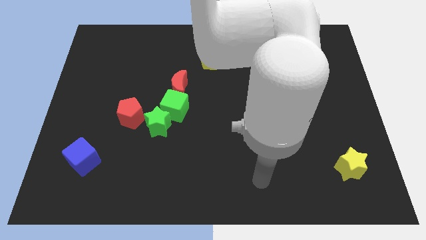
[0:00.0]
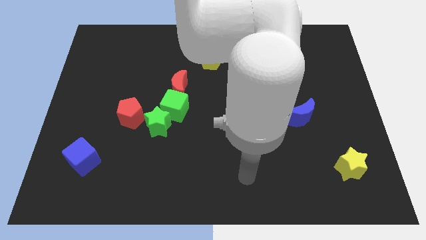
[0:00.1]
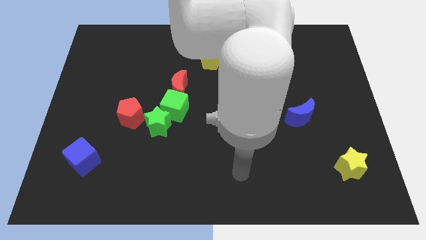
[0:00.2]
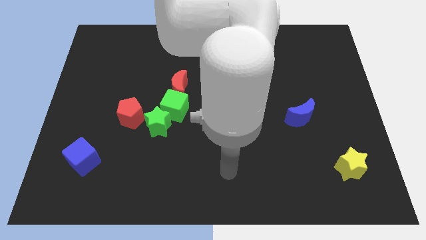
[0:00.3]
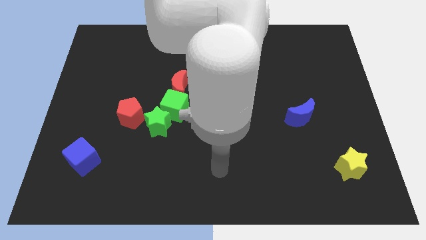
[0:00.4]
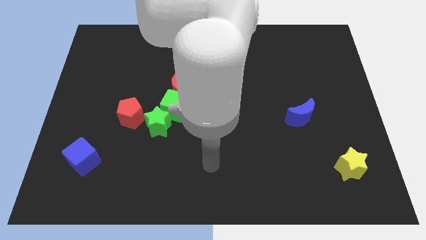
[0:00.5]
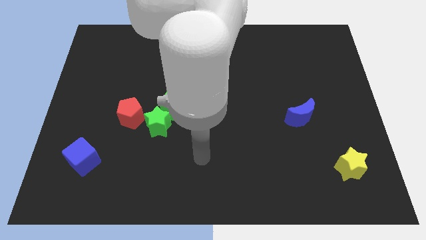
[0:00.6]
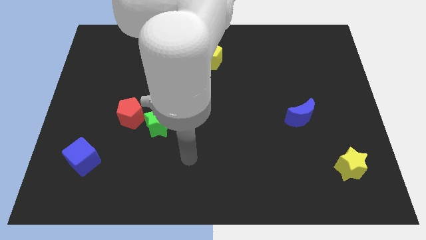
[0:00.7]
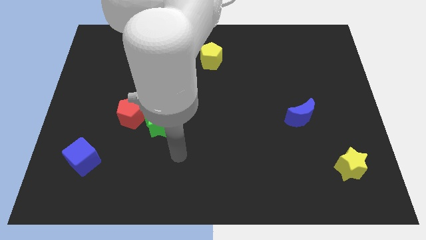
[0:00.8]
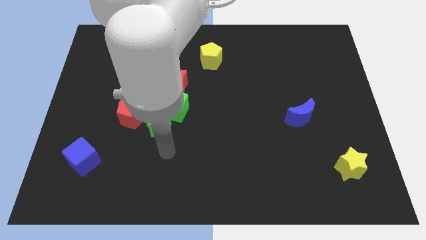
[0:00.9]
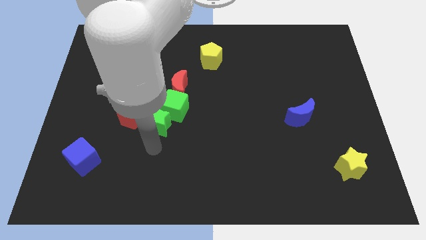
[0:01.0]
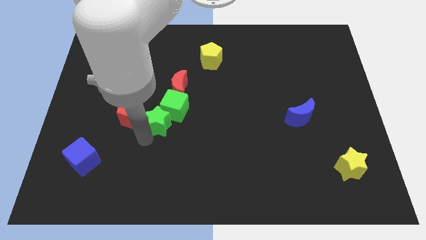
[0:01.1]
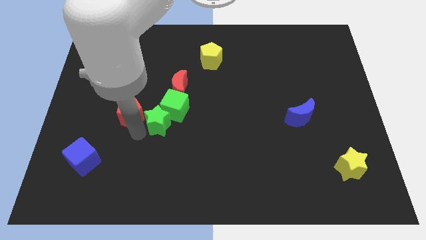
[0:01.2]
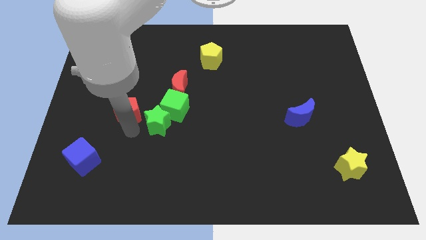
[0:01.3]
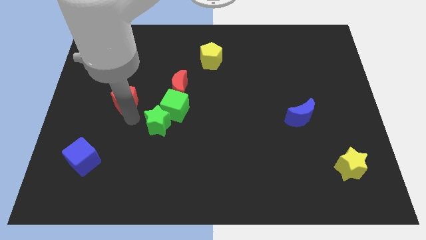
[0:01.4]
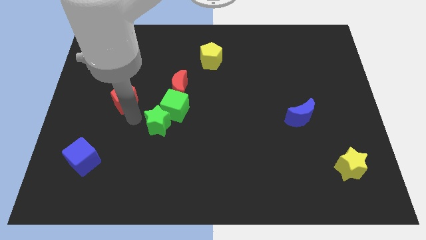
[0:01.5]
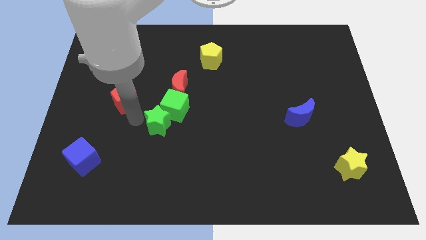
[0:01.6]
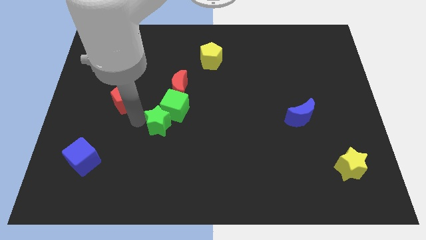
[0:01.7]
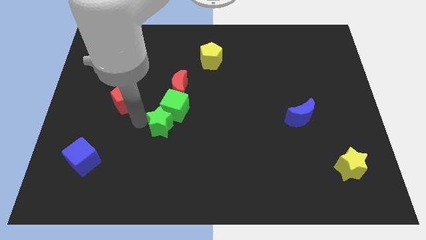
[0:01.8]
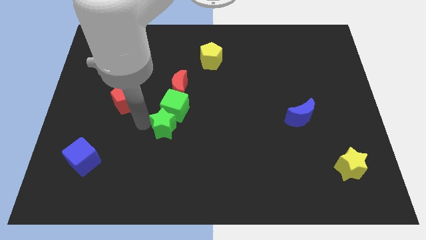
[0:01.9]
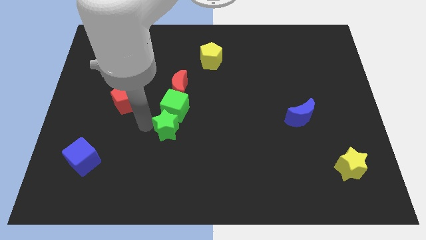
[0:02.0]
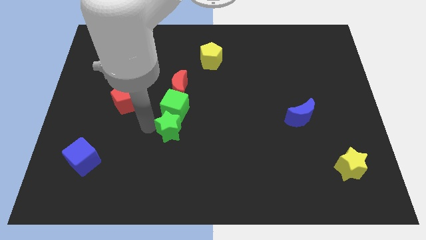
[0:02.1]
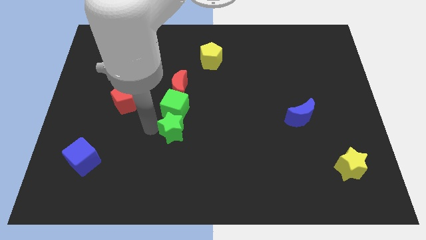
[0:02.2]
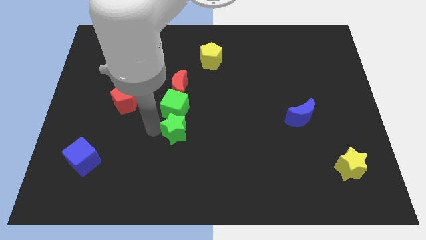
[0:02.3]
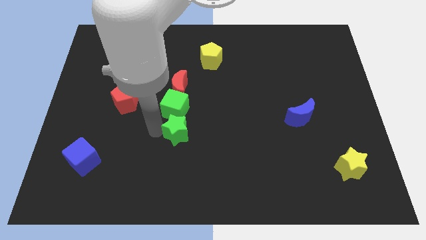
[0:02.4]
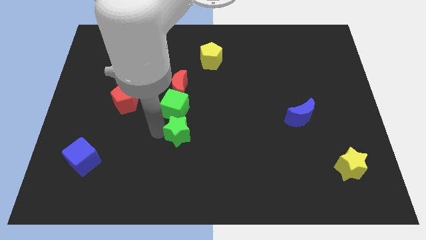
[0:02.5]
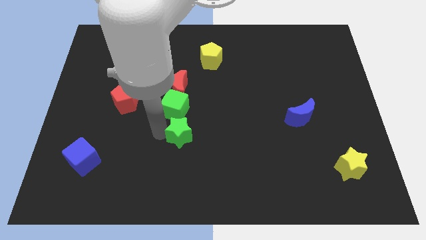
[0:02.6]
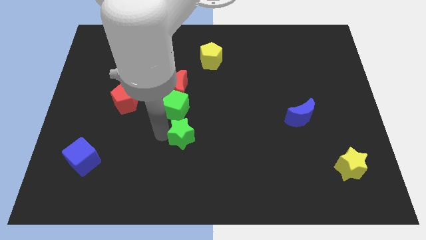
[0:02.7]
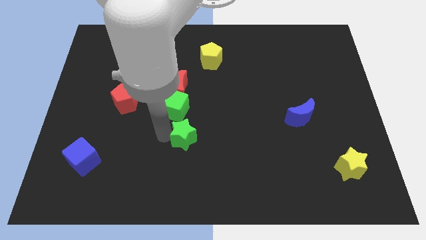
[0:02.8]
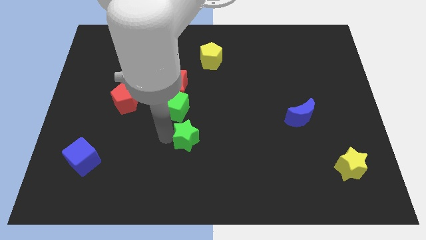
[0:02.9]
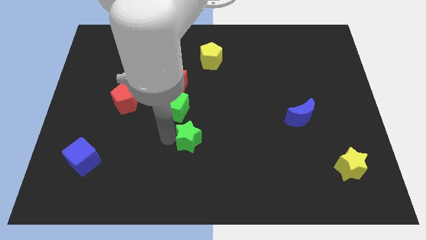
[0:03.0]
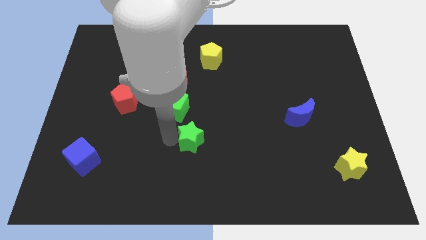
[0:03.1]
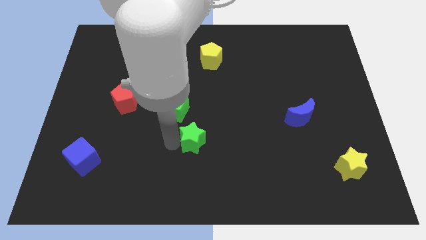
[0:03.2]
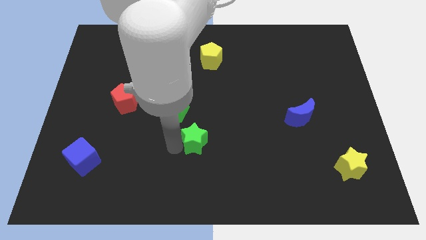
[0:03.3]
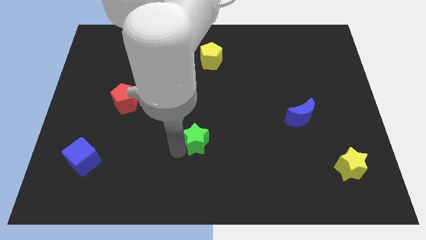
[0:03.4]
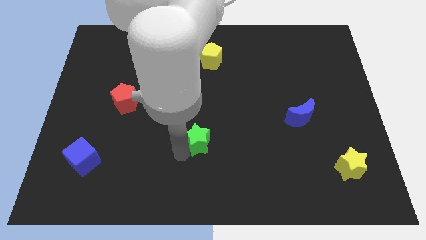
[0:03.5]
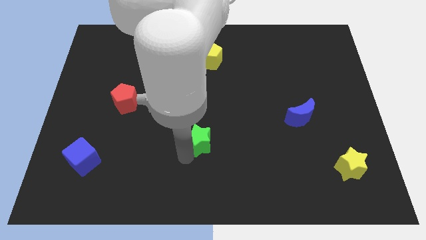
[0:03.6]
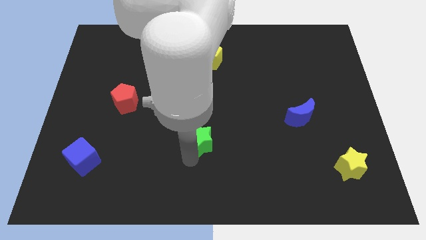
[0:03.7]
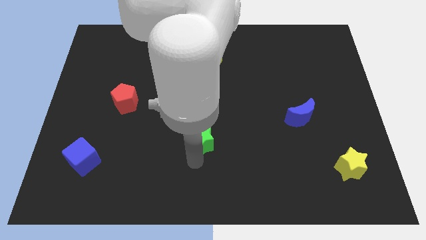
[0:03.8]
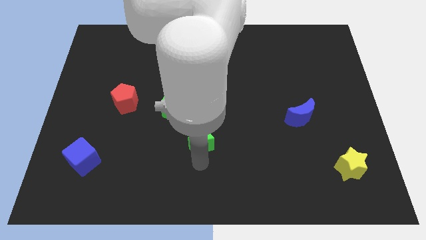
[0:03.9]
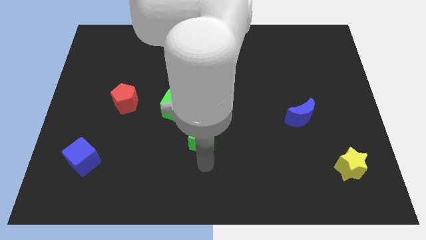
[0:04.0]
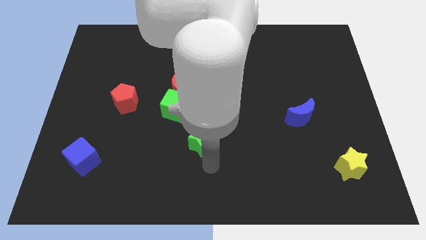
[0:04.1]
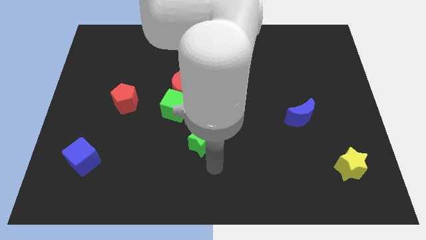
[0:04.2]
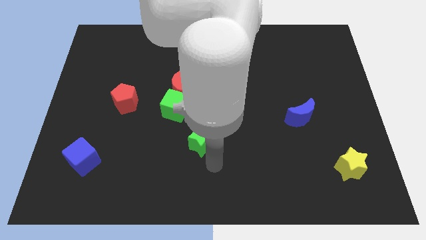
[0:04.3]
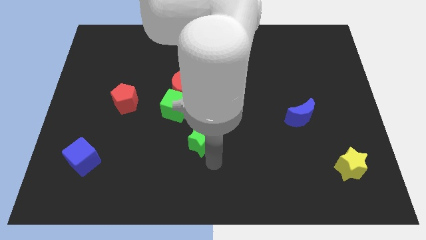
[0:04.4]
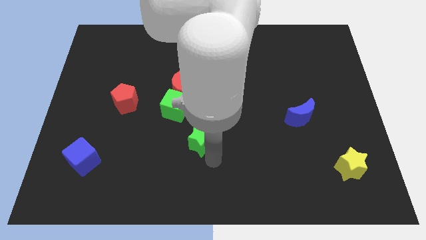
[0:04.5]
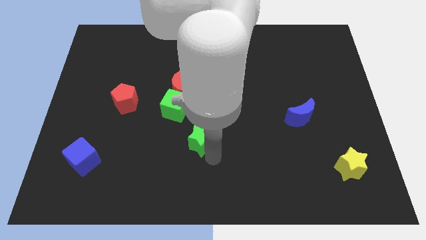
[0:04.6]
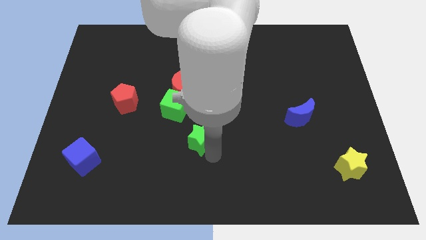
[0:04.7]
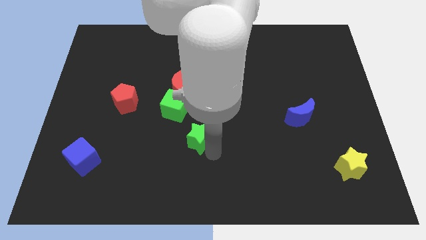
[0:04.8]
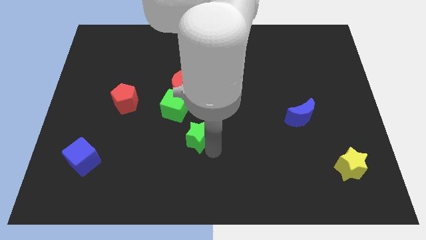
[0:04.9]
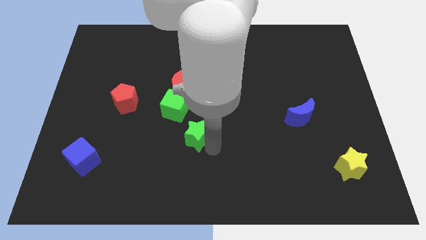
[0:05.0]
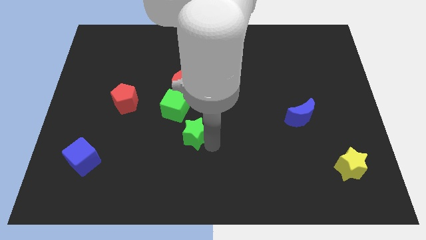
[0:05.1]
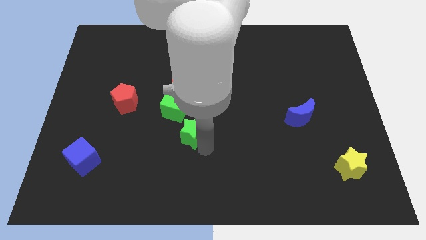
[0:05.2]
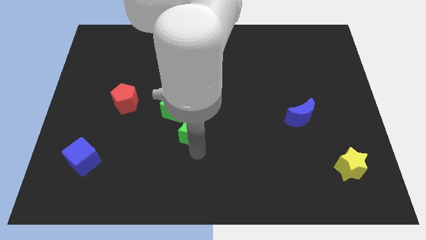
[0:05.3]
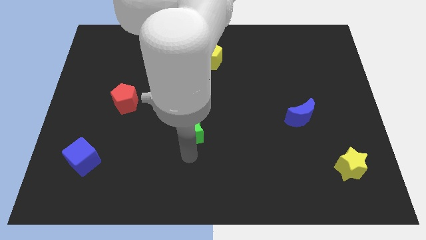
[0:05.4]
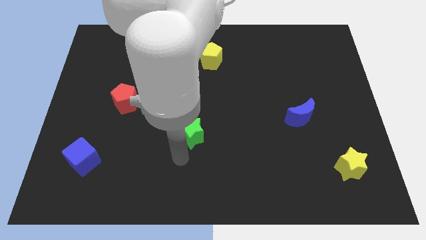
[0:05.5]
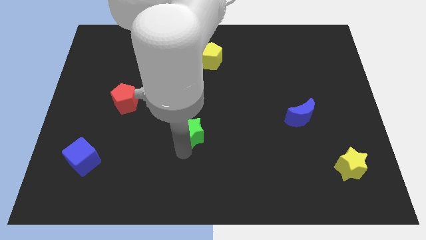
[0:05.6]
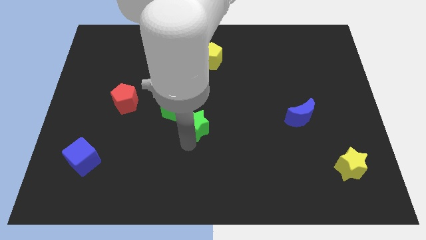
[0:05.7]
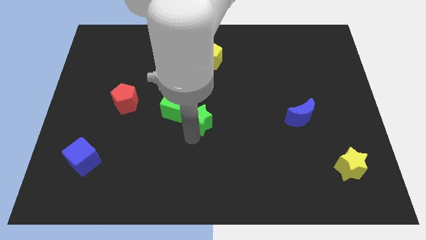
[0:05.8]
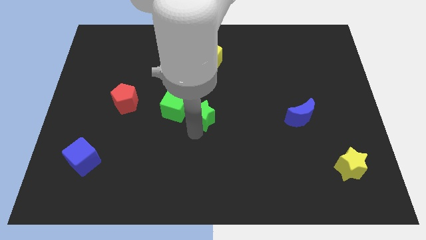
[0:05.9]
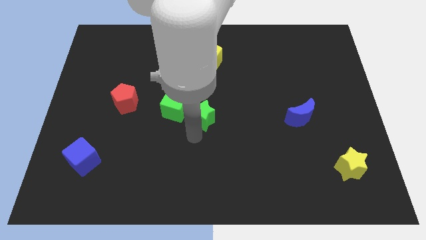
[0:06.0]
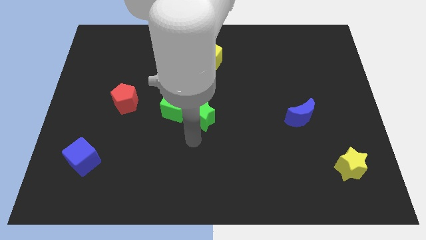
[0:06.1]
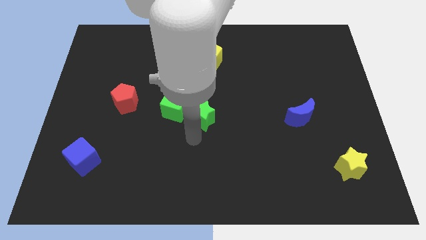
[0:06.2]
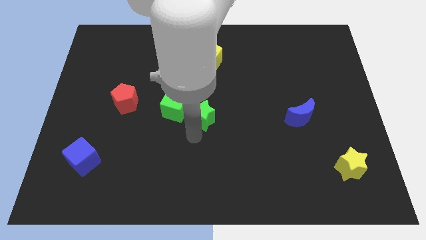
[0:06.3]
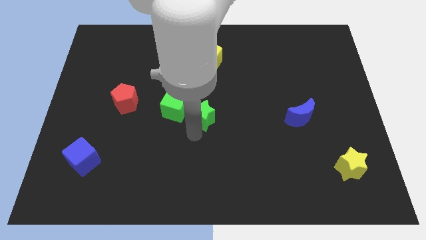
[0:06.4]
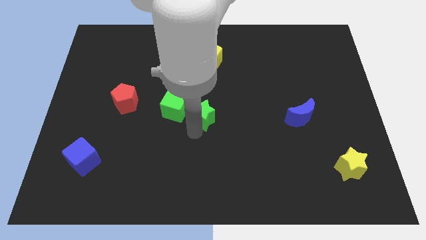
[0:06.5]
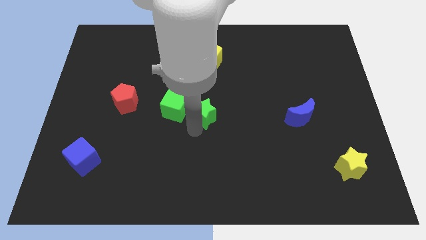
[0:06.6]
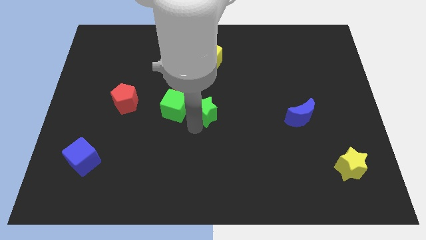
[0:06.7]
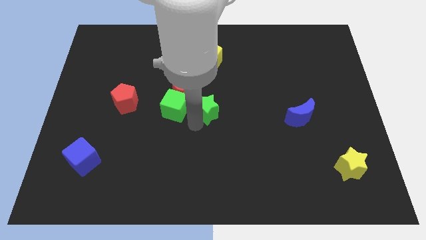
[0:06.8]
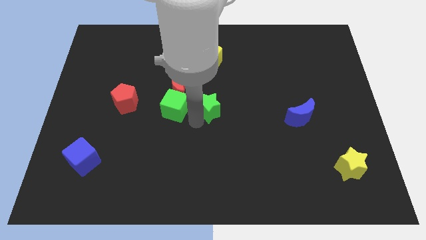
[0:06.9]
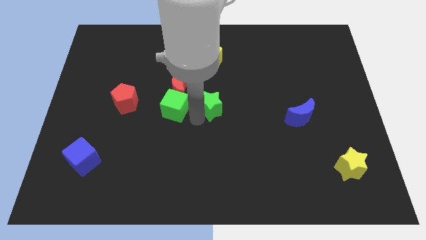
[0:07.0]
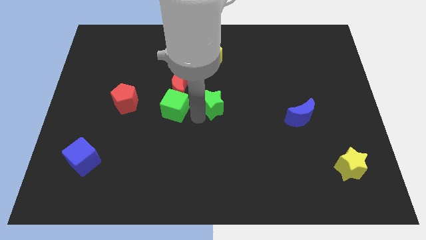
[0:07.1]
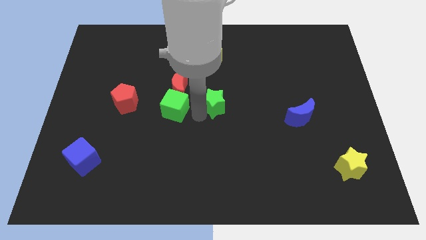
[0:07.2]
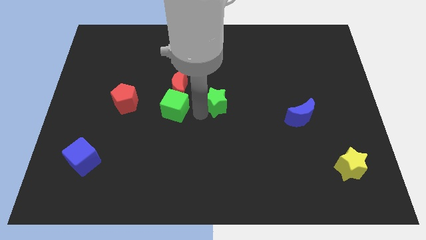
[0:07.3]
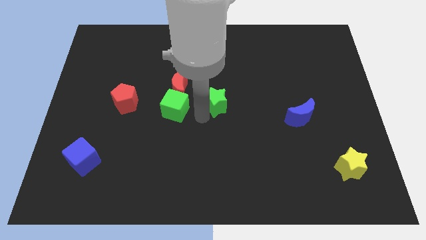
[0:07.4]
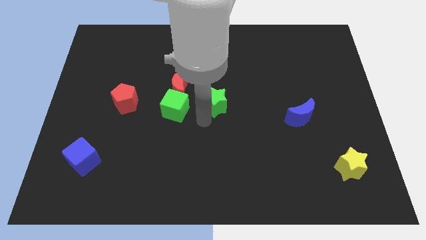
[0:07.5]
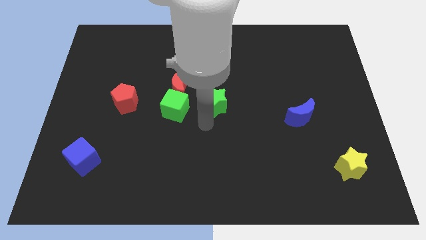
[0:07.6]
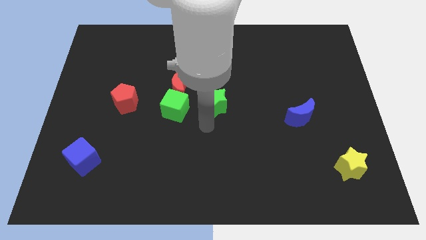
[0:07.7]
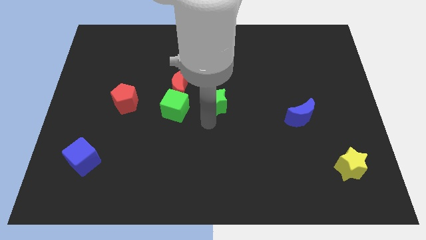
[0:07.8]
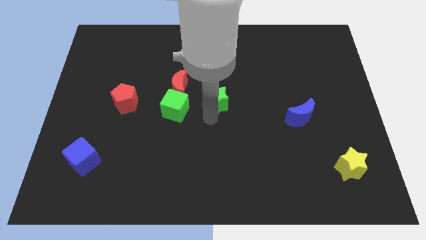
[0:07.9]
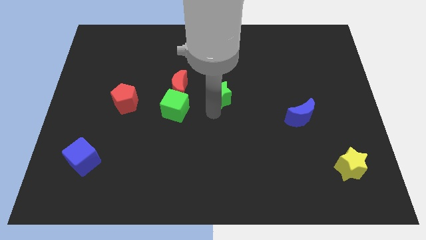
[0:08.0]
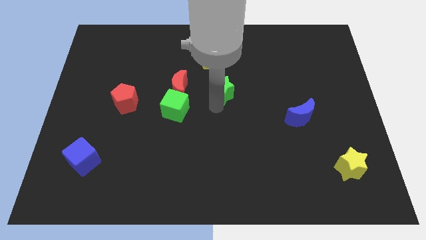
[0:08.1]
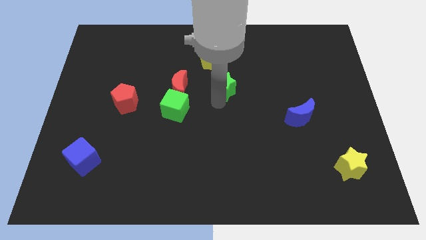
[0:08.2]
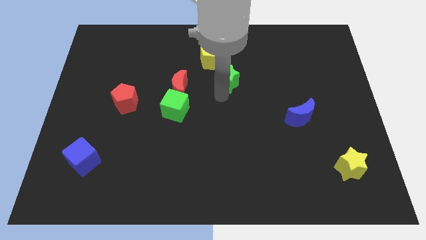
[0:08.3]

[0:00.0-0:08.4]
push the green star upwards and then right
